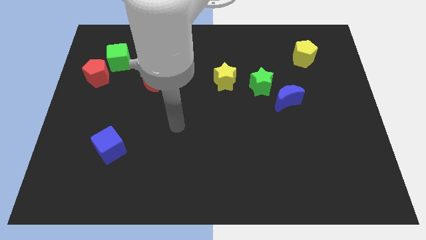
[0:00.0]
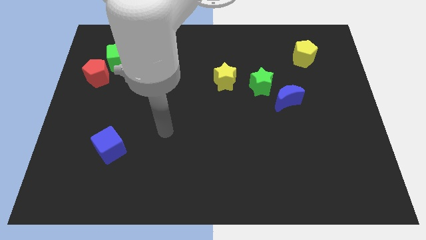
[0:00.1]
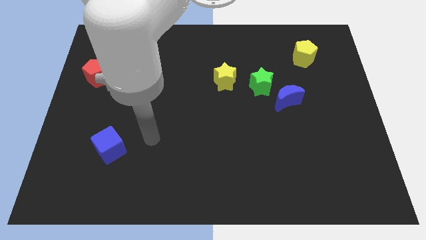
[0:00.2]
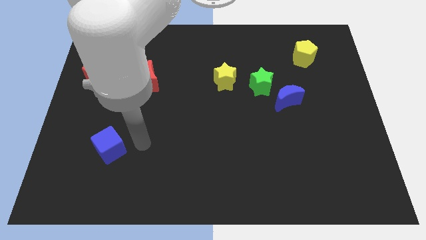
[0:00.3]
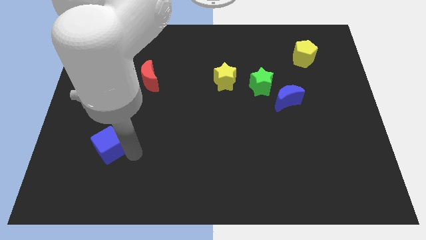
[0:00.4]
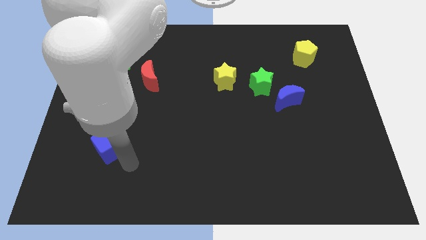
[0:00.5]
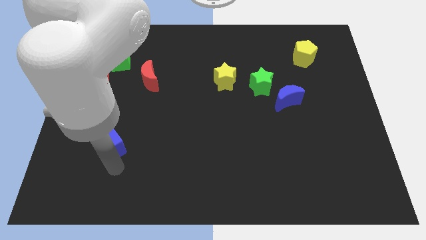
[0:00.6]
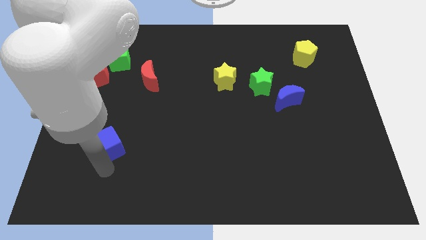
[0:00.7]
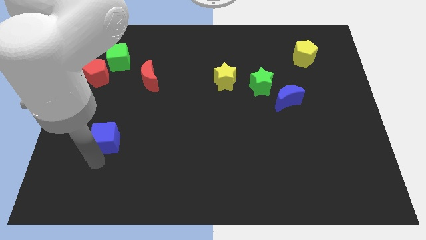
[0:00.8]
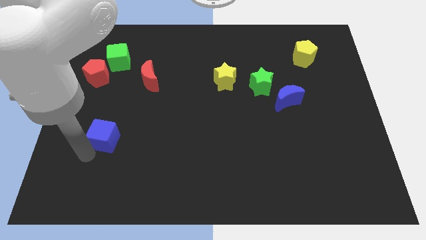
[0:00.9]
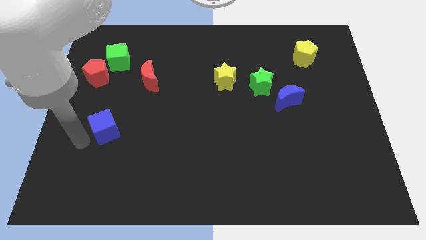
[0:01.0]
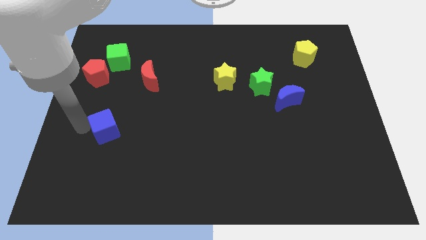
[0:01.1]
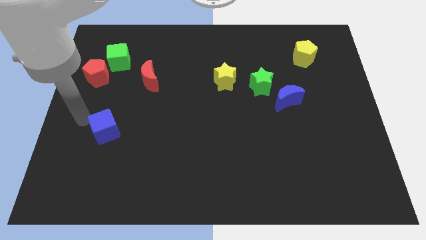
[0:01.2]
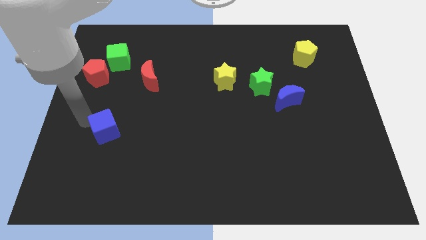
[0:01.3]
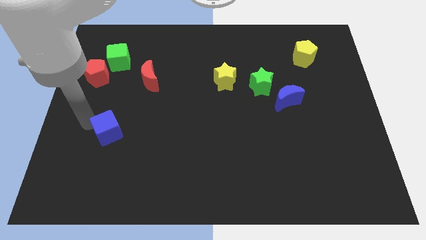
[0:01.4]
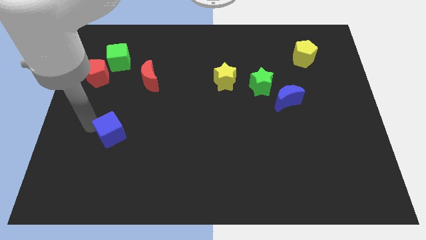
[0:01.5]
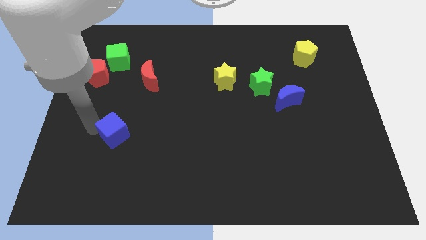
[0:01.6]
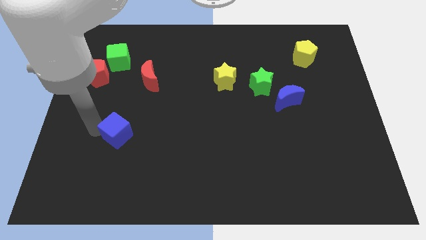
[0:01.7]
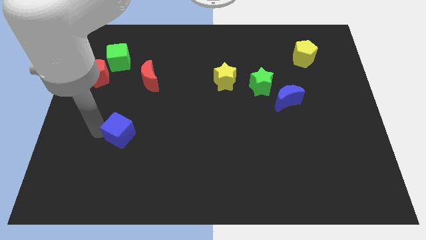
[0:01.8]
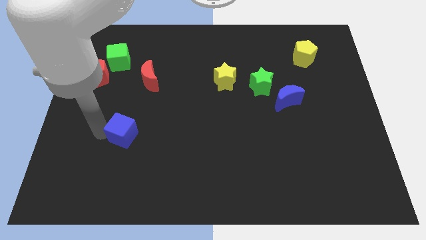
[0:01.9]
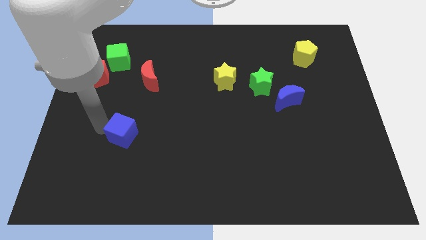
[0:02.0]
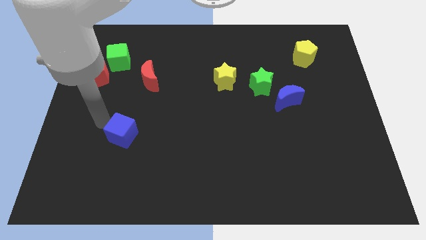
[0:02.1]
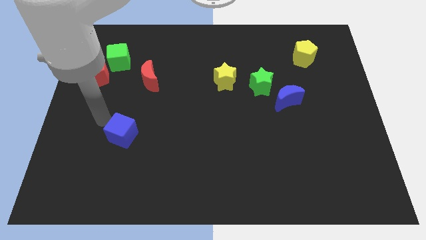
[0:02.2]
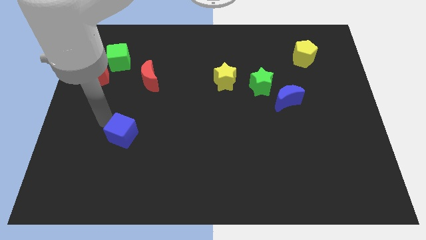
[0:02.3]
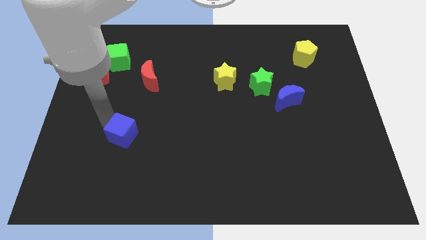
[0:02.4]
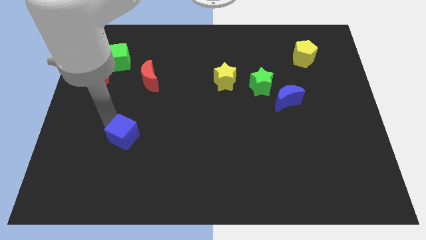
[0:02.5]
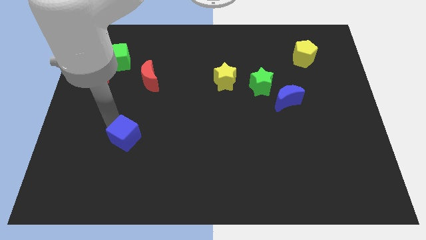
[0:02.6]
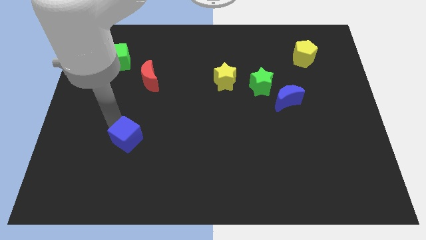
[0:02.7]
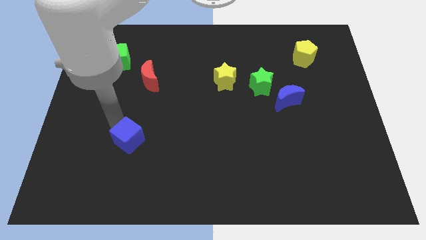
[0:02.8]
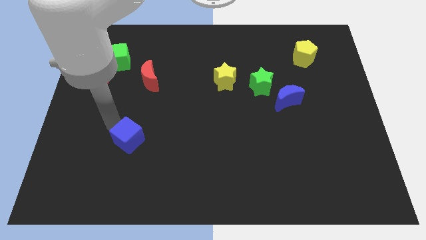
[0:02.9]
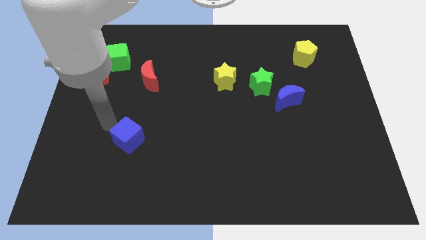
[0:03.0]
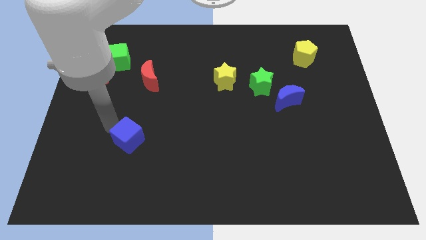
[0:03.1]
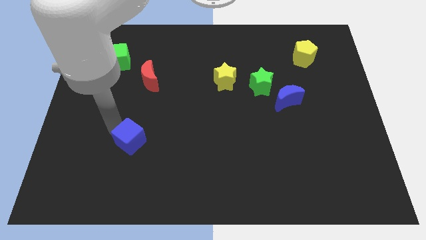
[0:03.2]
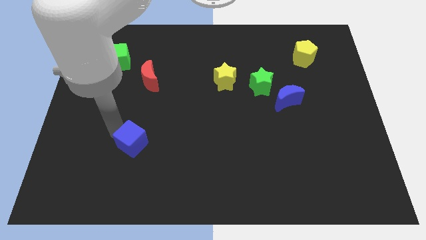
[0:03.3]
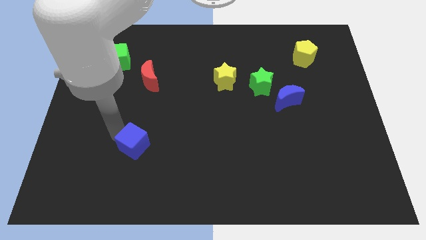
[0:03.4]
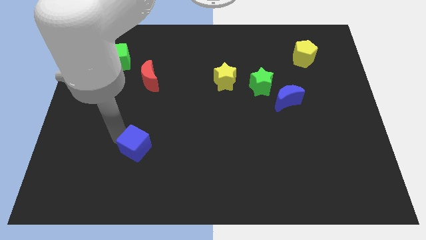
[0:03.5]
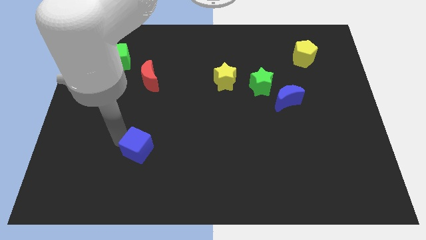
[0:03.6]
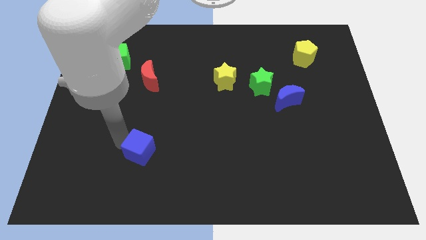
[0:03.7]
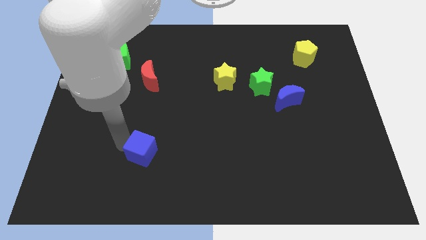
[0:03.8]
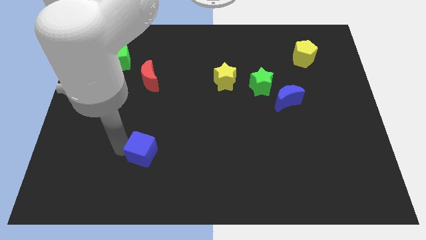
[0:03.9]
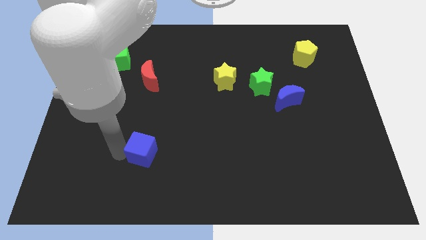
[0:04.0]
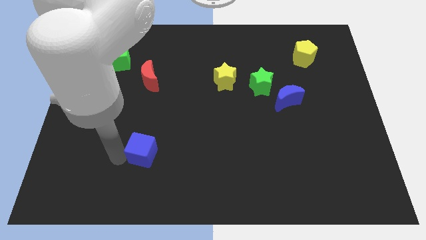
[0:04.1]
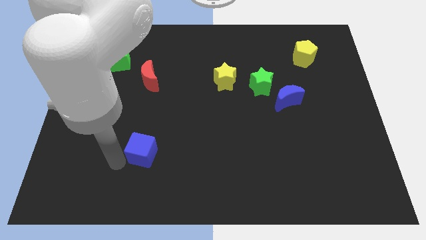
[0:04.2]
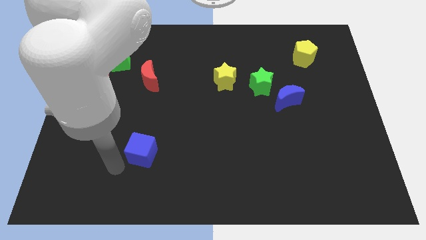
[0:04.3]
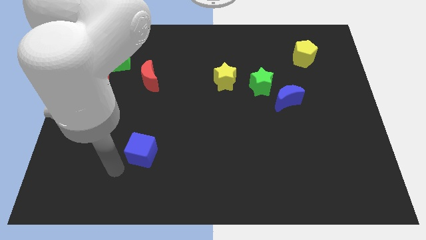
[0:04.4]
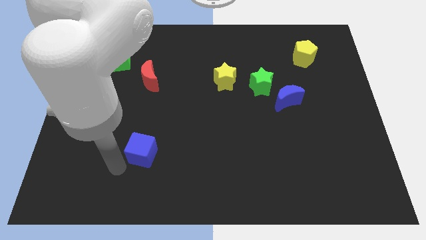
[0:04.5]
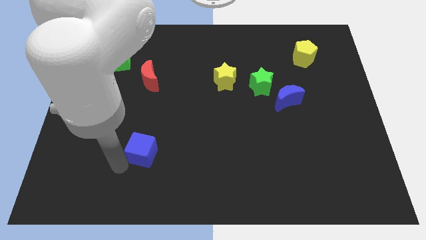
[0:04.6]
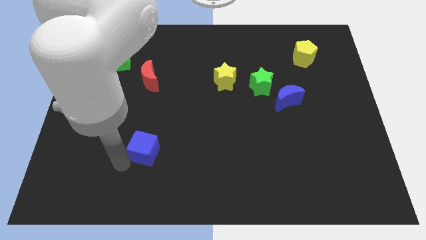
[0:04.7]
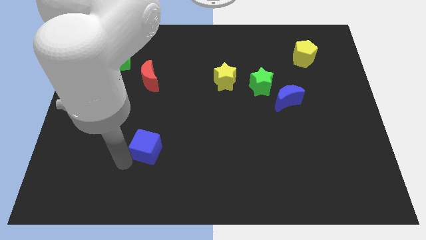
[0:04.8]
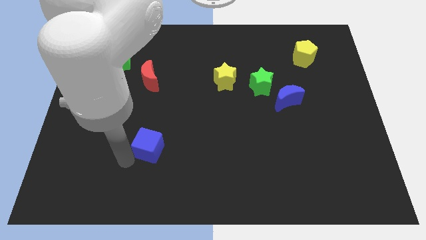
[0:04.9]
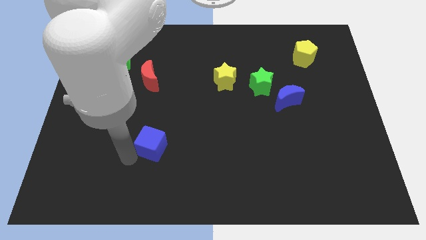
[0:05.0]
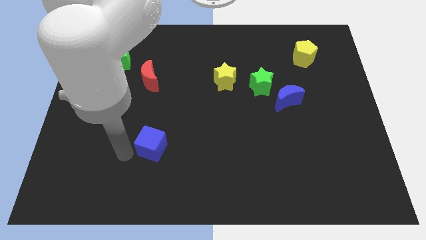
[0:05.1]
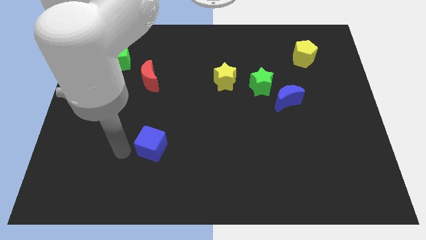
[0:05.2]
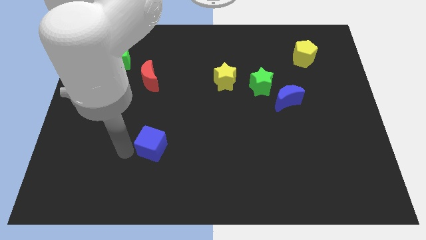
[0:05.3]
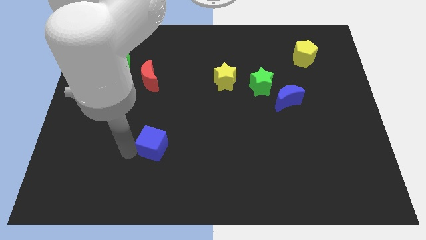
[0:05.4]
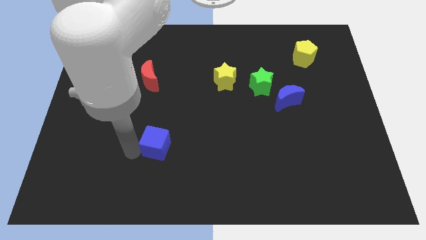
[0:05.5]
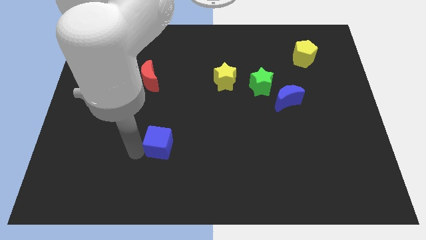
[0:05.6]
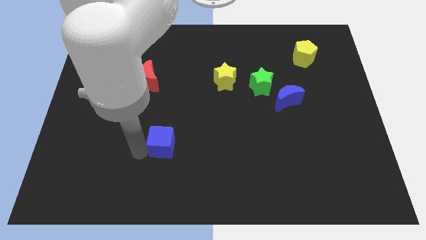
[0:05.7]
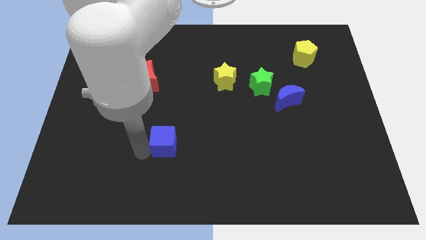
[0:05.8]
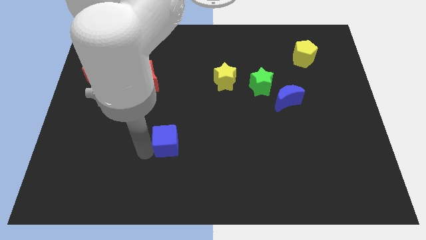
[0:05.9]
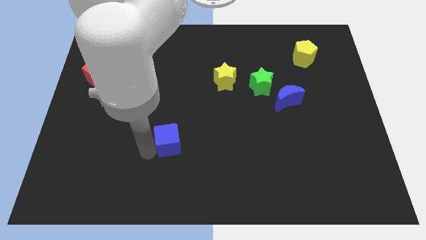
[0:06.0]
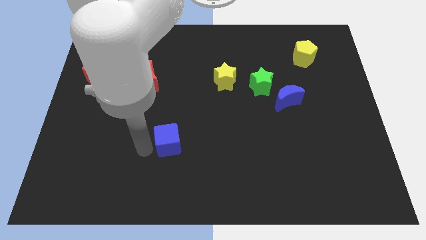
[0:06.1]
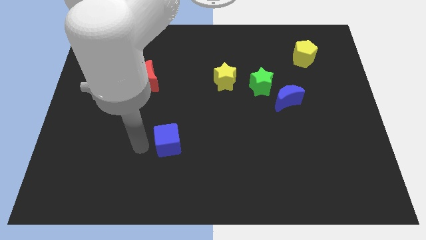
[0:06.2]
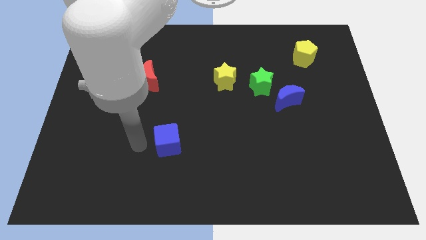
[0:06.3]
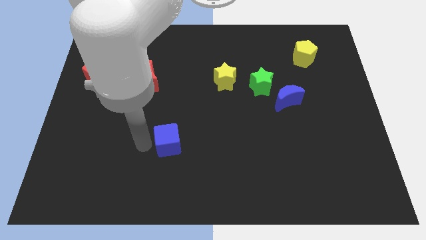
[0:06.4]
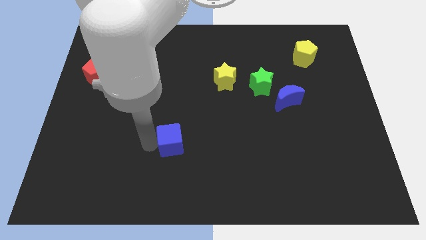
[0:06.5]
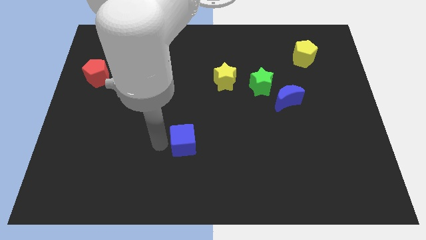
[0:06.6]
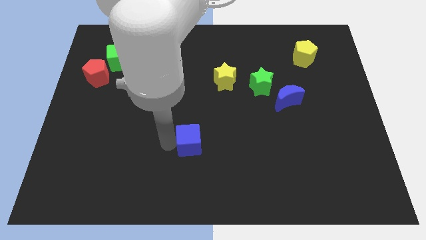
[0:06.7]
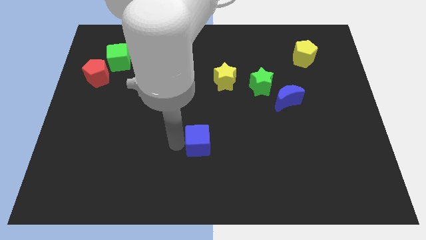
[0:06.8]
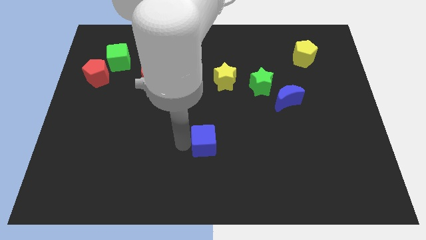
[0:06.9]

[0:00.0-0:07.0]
move the blue cube right

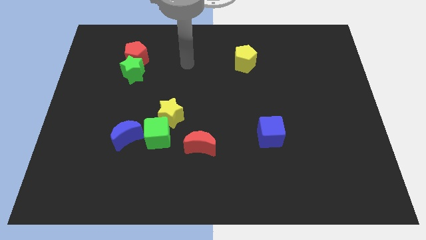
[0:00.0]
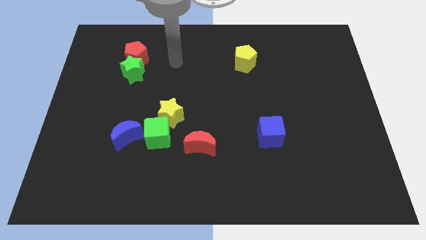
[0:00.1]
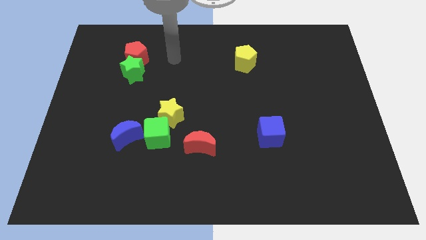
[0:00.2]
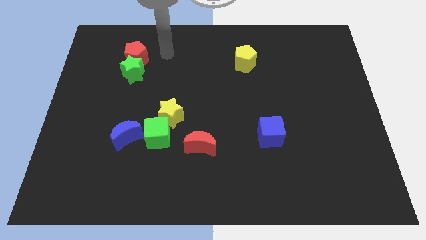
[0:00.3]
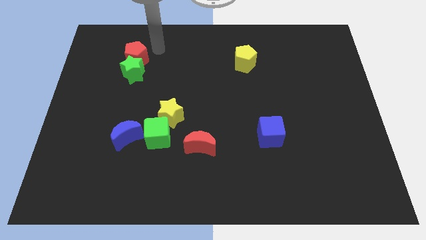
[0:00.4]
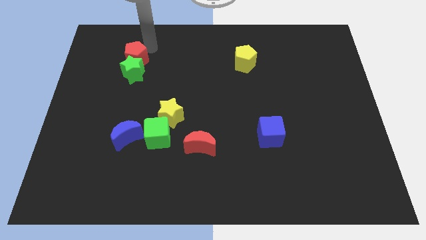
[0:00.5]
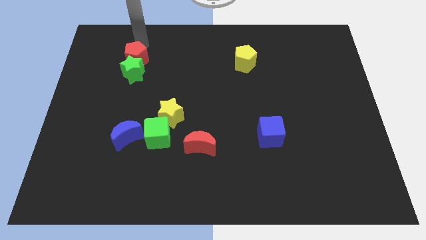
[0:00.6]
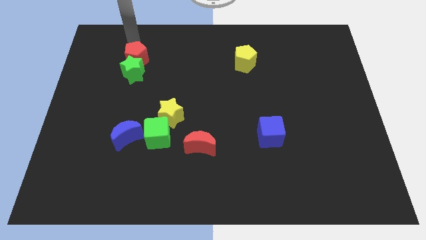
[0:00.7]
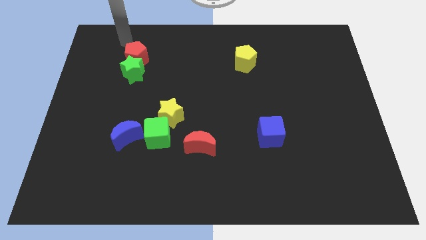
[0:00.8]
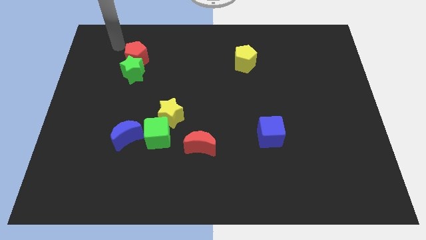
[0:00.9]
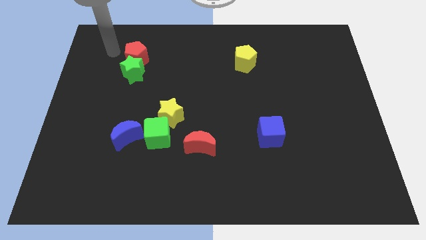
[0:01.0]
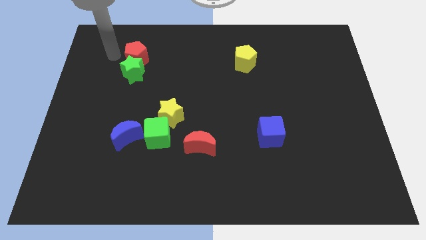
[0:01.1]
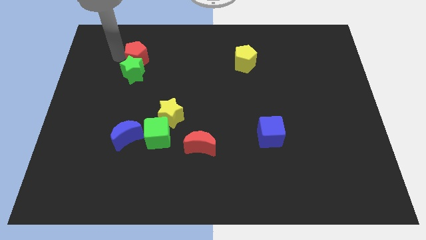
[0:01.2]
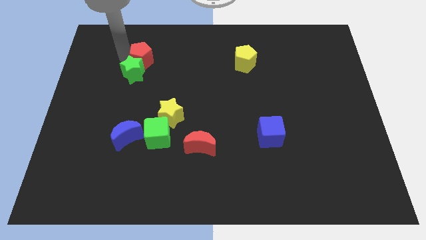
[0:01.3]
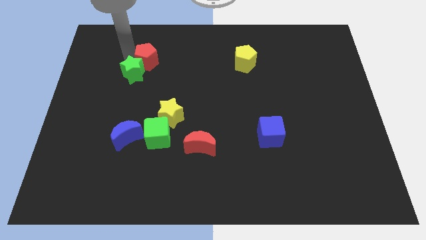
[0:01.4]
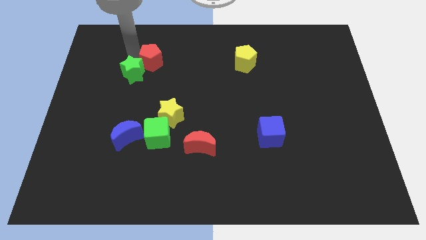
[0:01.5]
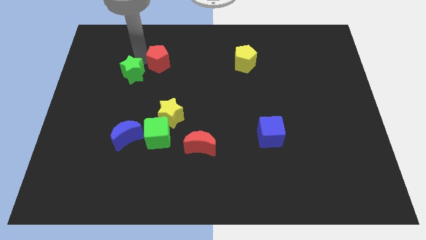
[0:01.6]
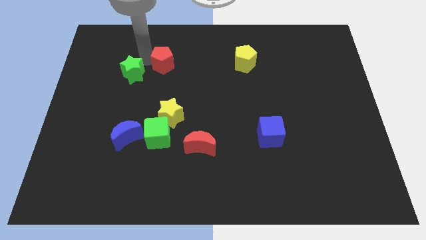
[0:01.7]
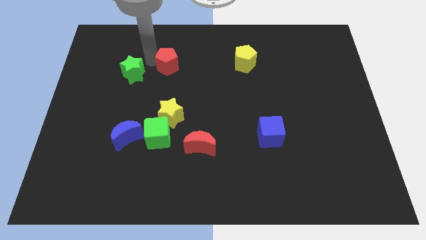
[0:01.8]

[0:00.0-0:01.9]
slide the red pentagon diagonally down and to the right a bit
